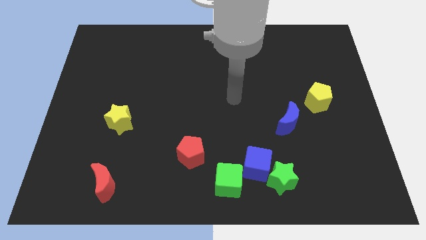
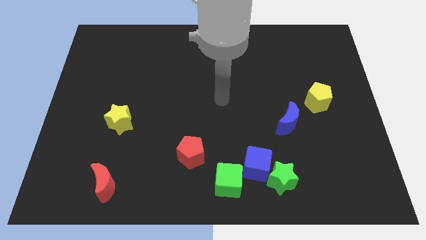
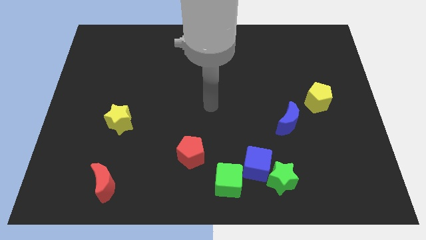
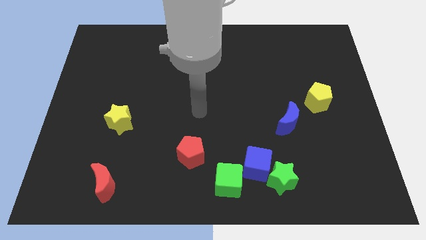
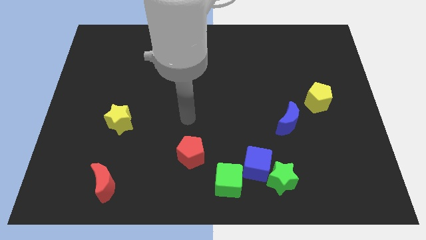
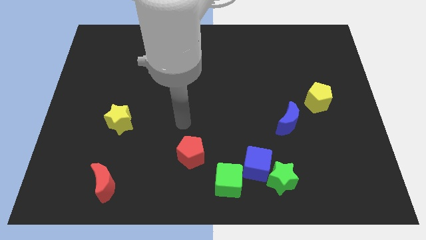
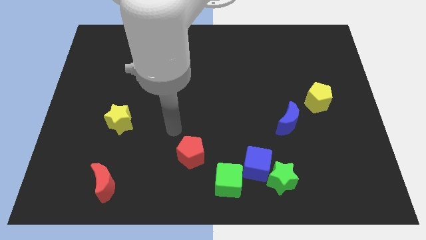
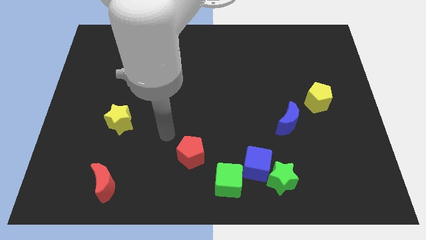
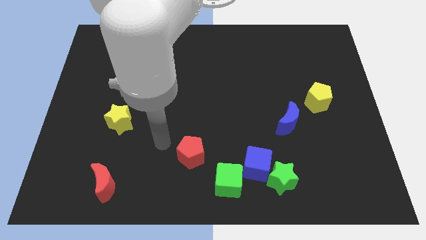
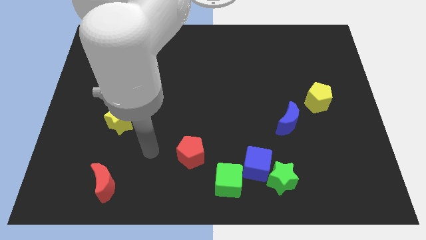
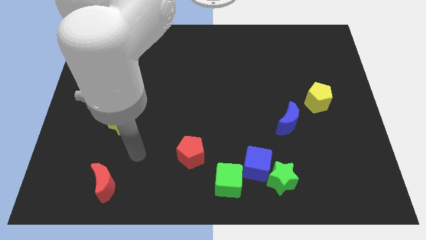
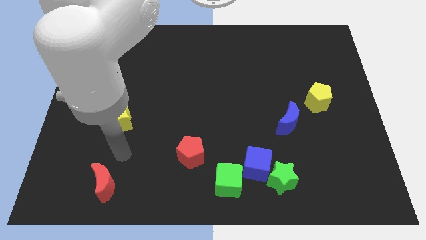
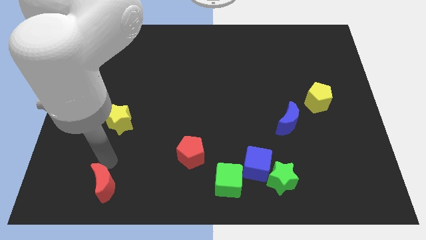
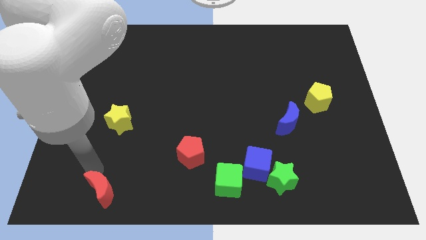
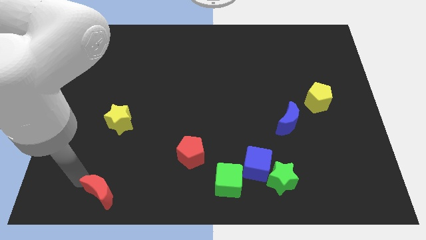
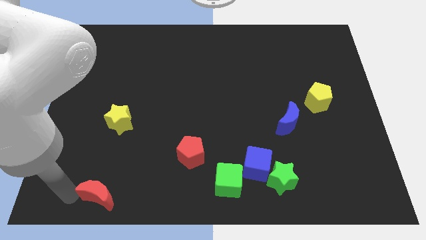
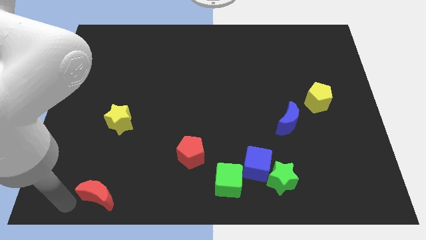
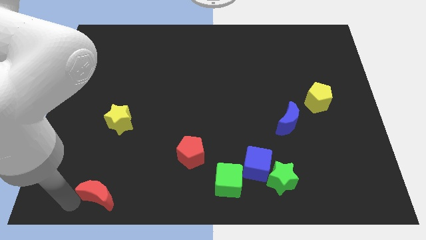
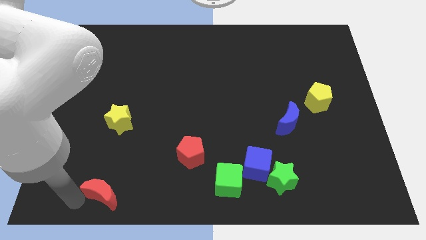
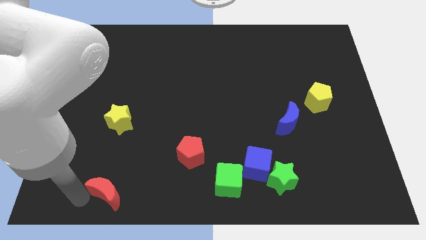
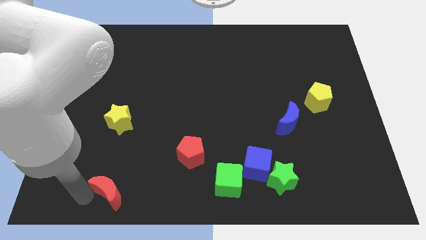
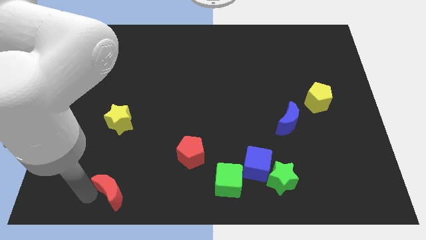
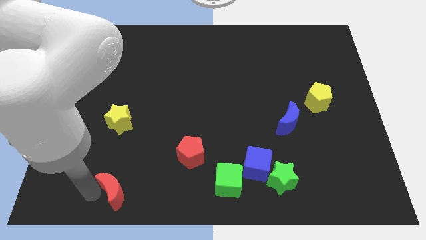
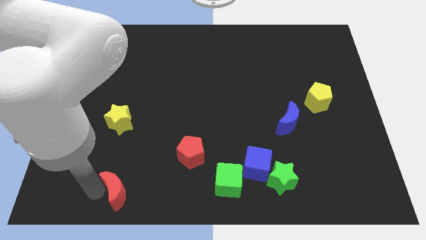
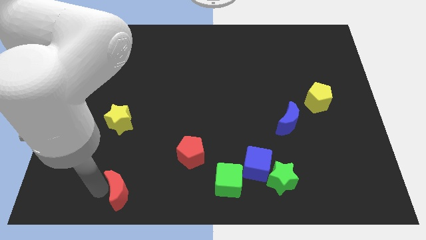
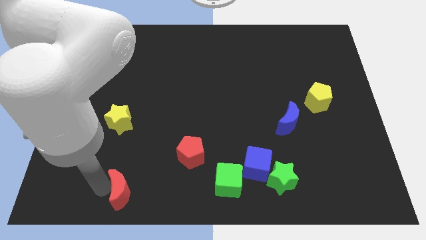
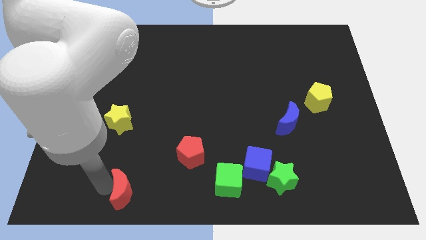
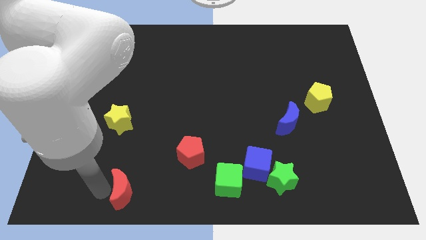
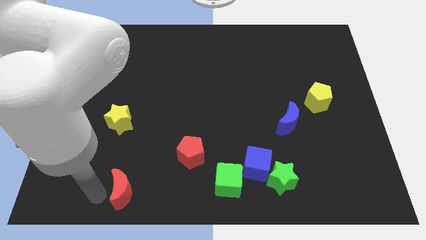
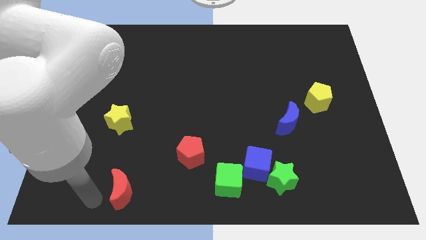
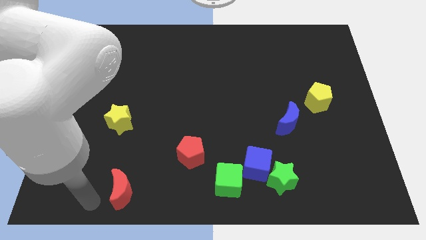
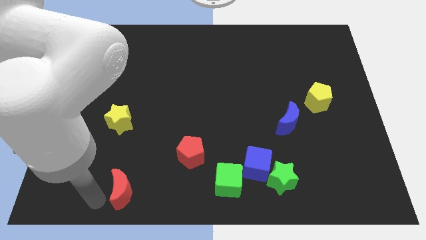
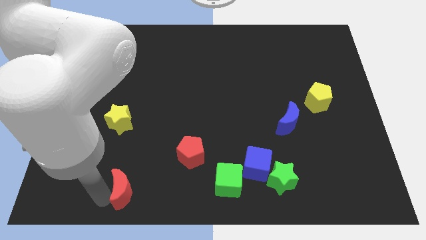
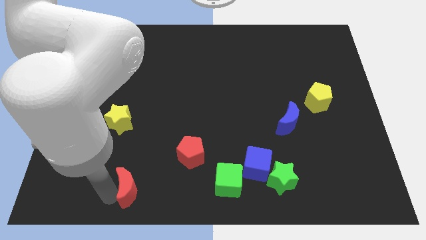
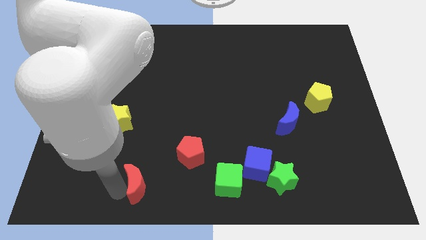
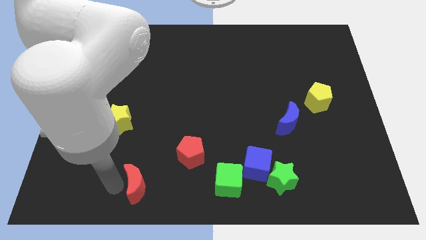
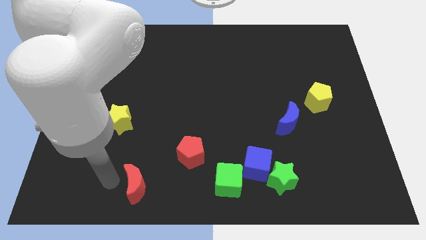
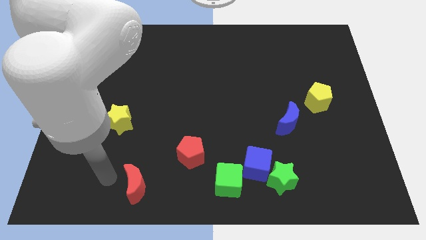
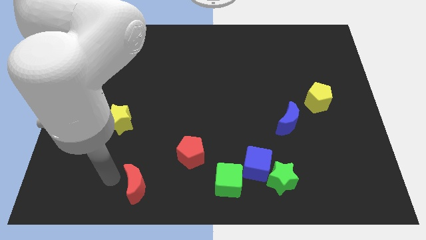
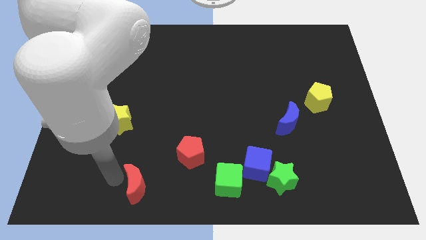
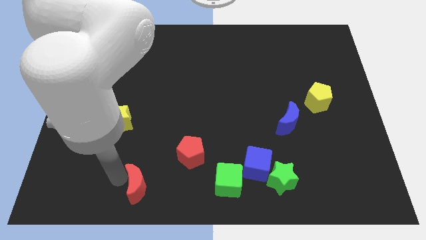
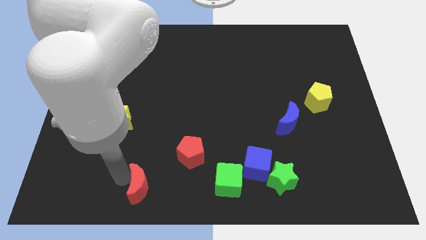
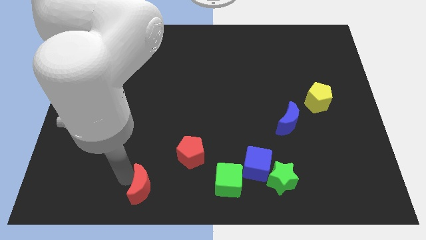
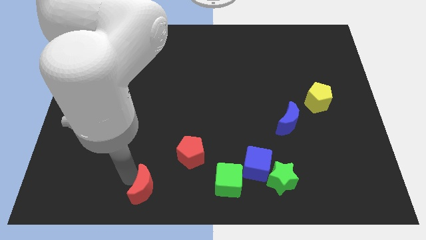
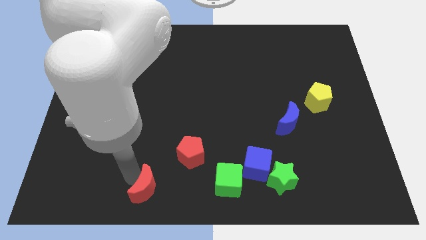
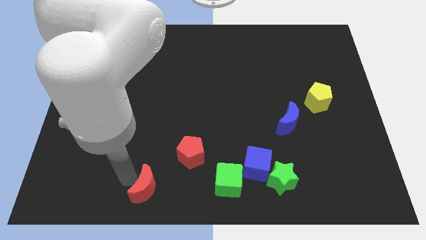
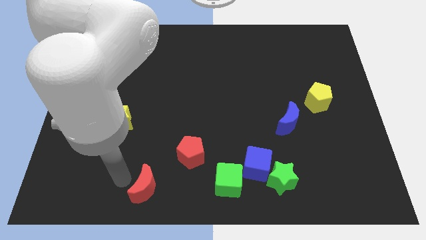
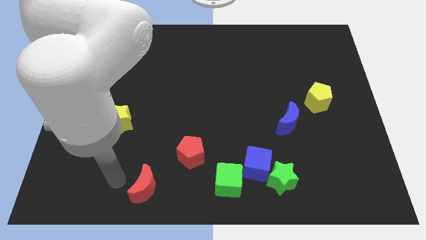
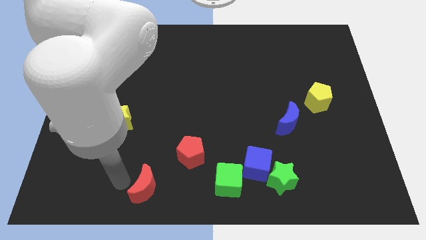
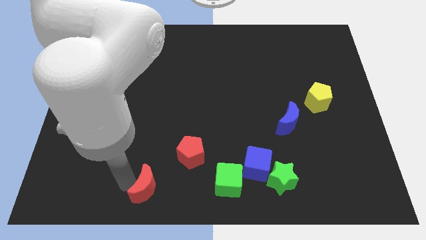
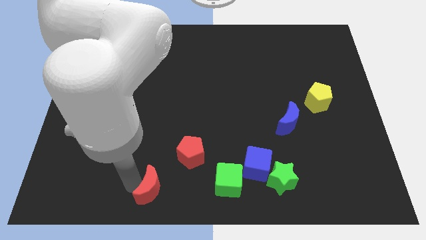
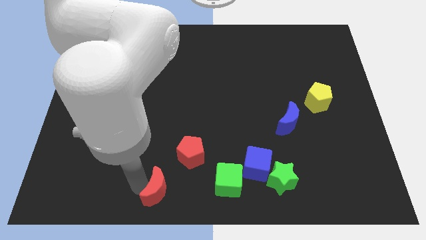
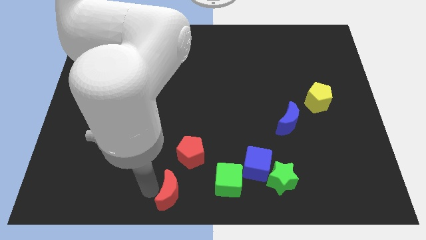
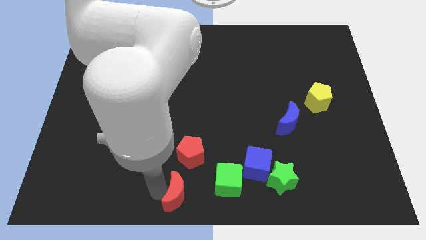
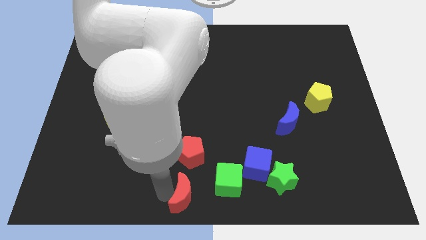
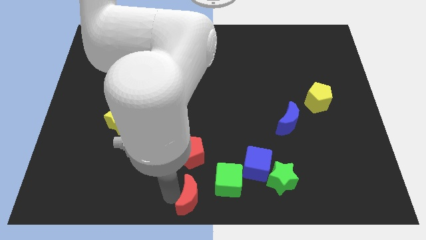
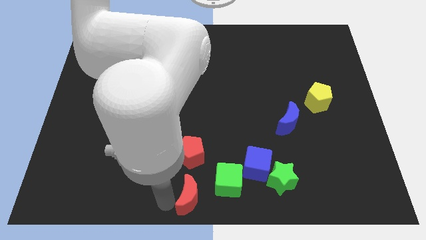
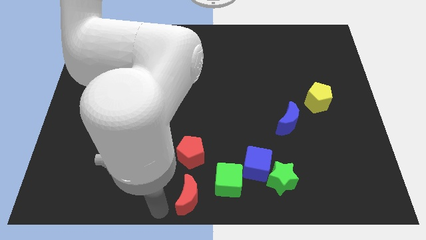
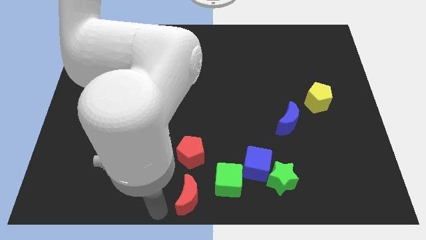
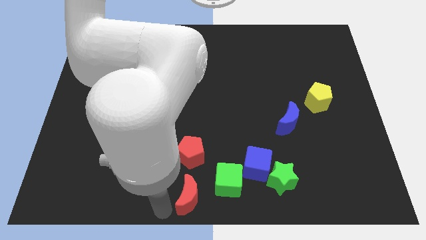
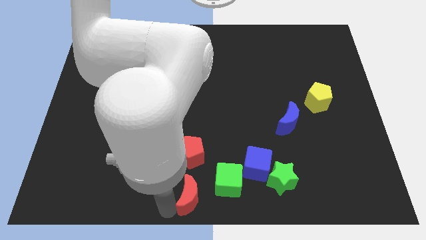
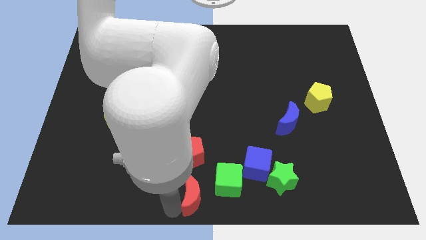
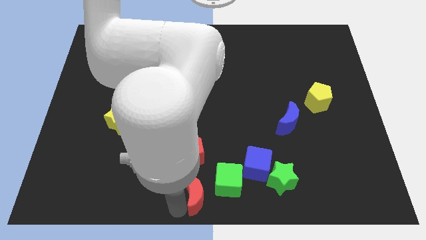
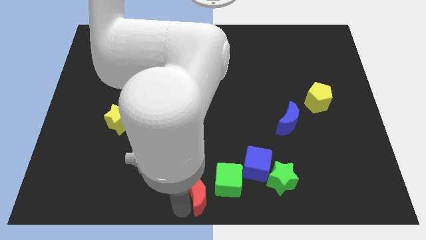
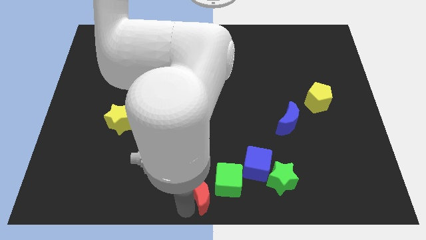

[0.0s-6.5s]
push the red moon next to the green cube

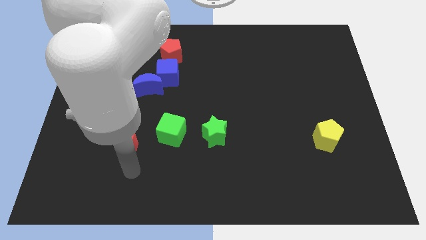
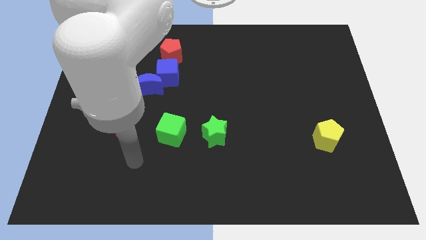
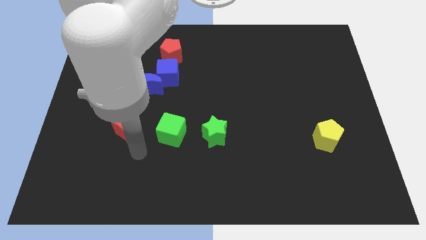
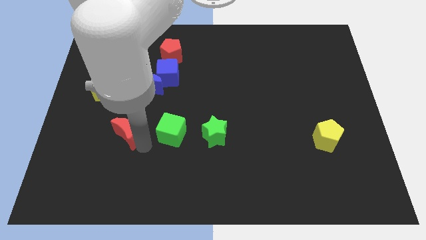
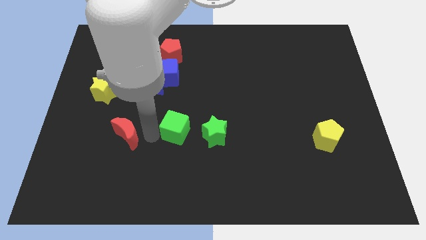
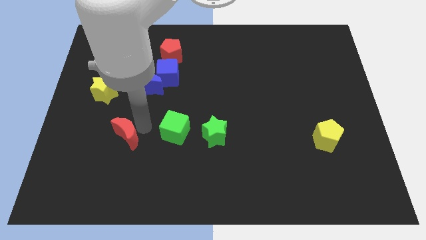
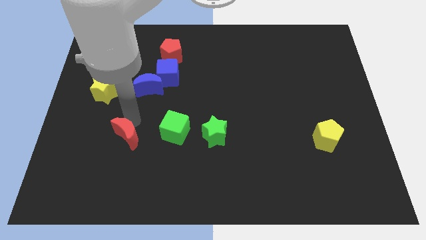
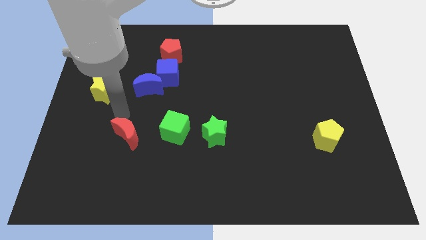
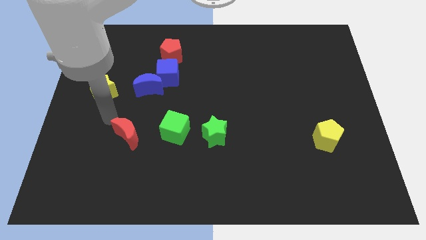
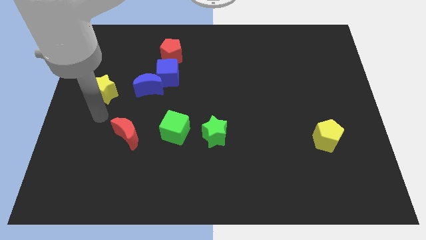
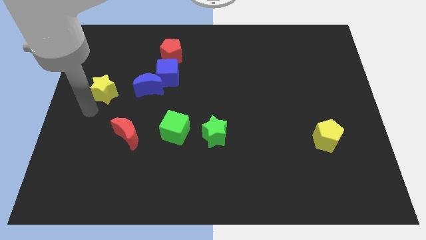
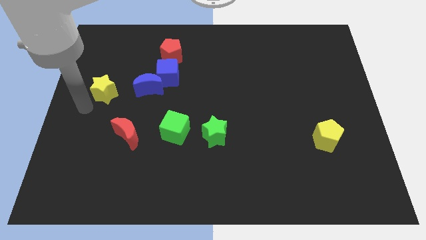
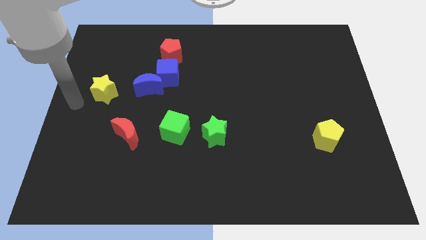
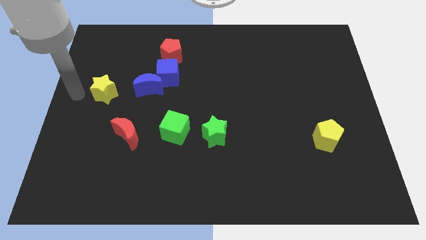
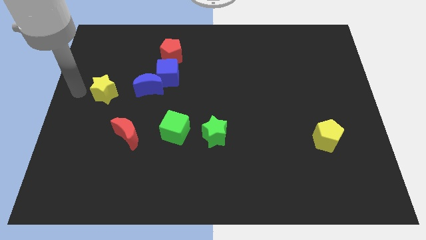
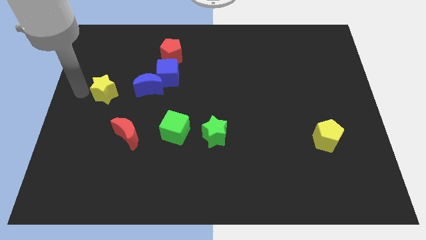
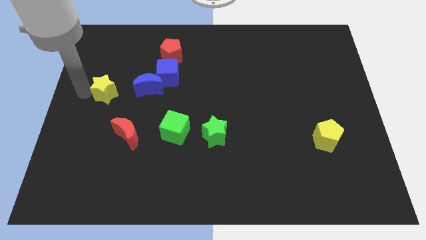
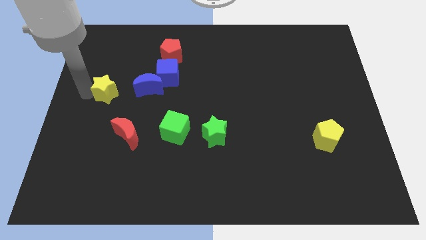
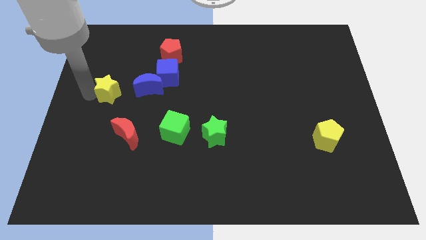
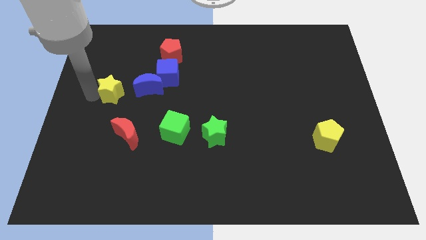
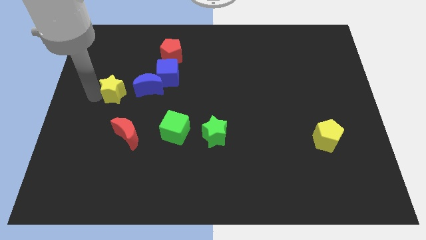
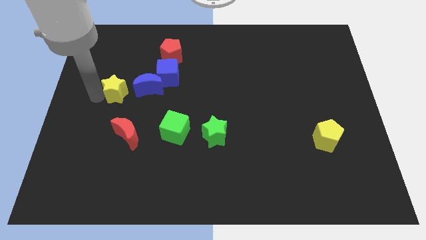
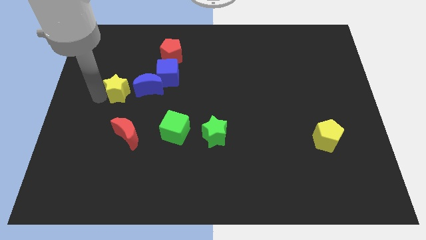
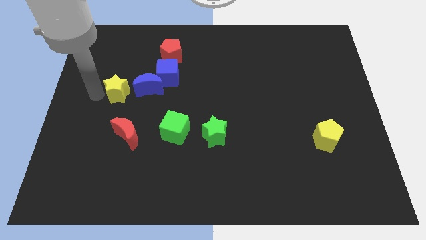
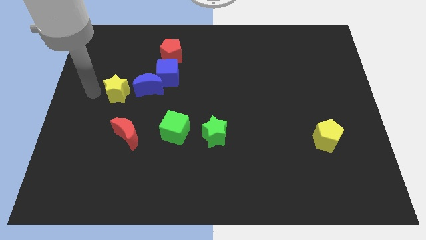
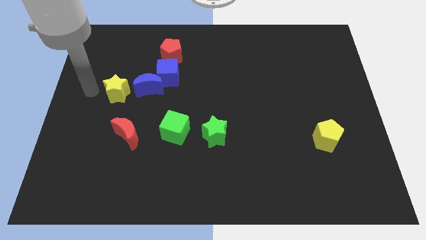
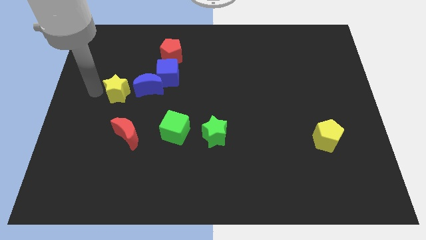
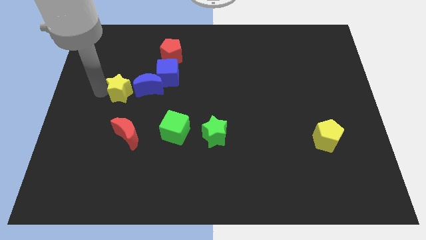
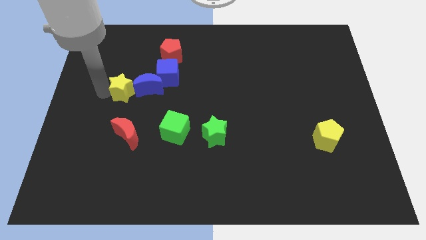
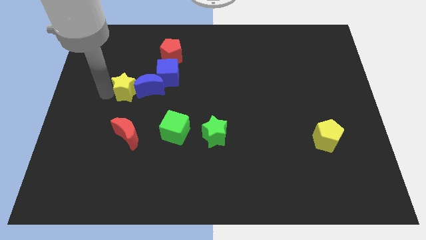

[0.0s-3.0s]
slide the yellow star next to the blue moon
